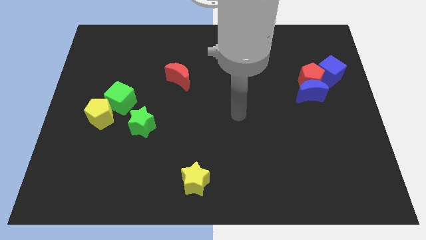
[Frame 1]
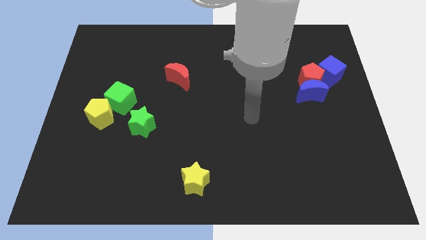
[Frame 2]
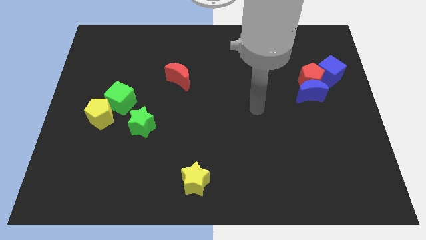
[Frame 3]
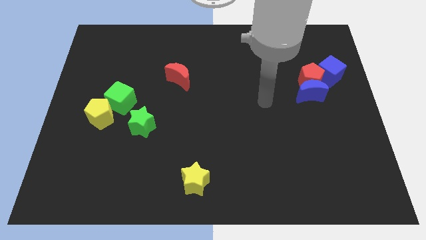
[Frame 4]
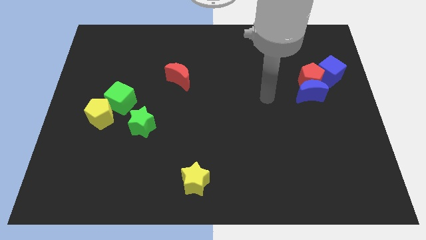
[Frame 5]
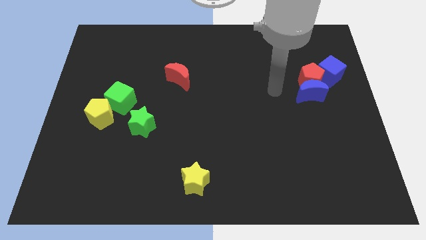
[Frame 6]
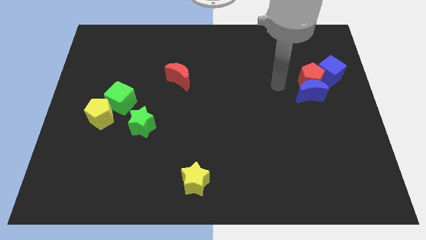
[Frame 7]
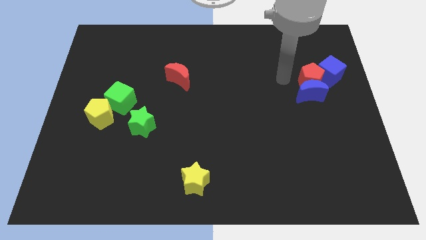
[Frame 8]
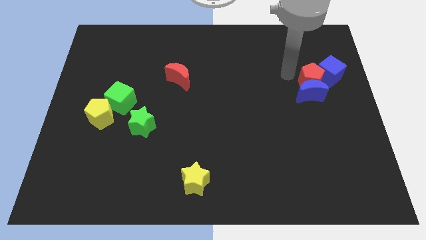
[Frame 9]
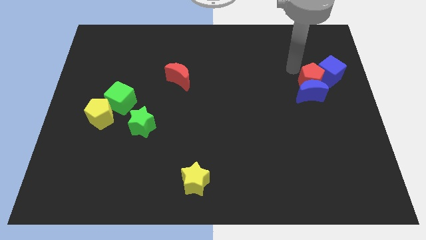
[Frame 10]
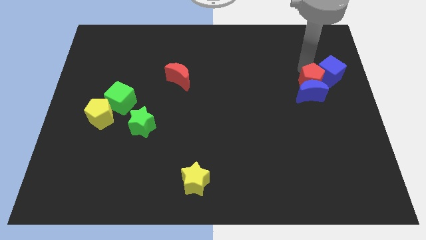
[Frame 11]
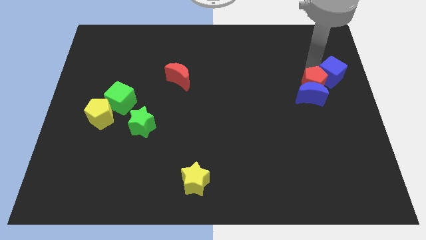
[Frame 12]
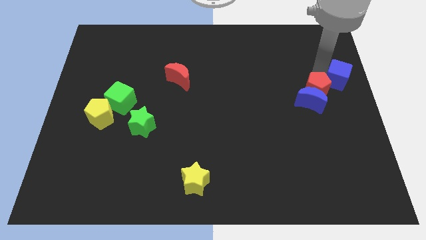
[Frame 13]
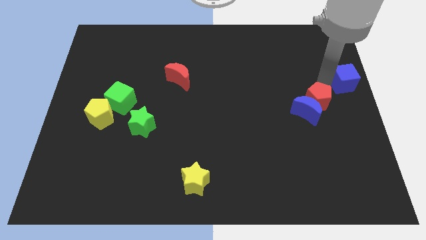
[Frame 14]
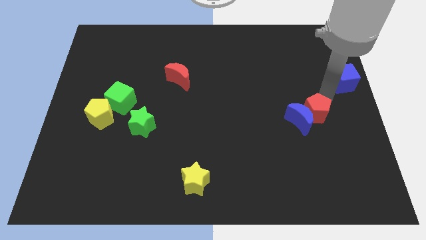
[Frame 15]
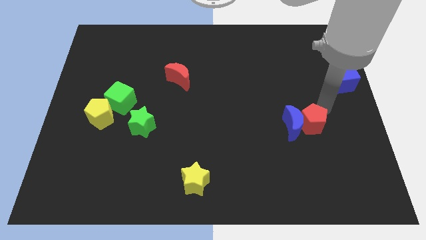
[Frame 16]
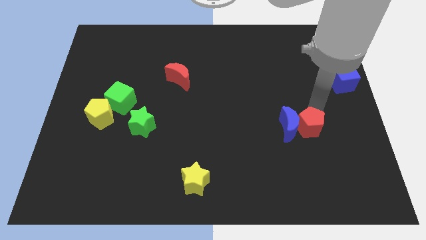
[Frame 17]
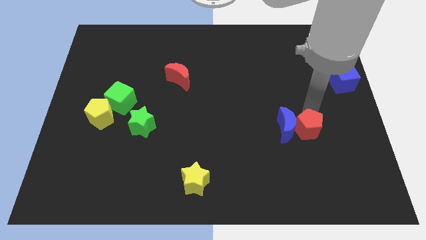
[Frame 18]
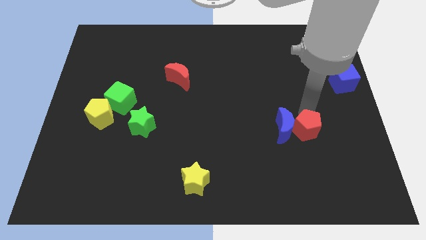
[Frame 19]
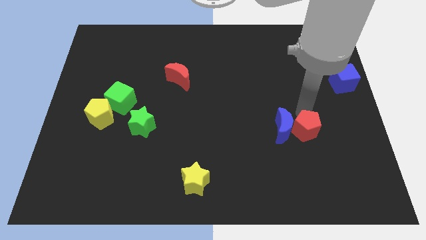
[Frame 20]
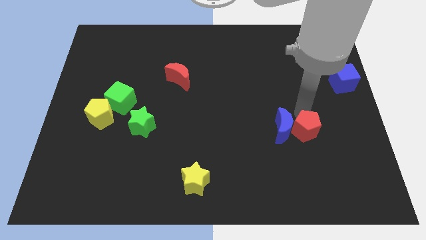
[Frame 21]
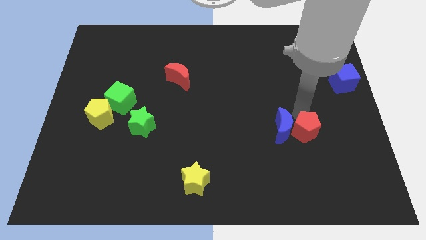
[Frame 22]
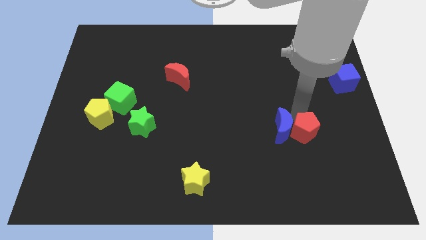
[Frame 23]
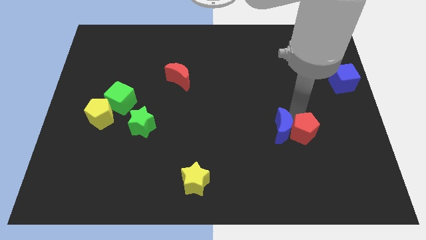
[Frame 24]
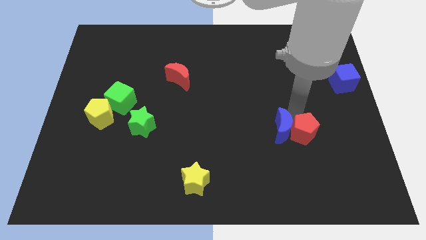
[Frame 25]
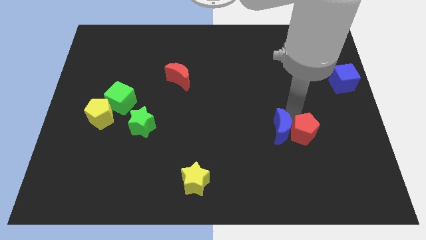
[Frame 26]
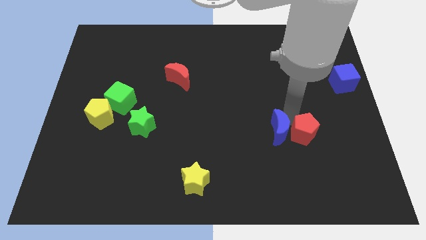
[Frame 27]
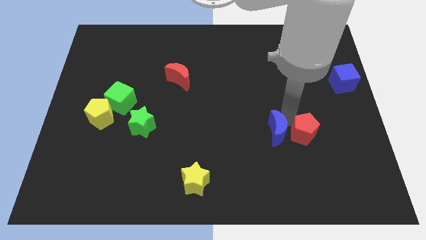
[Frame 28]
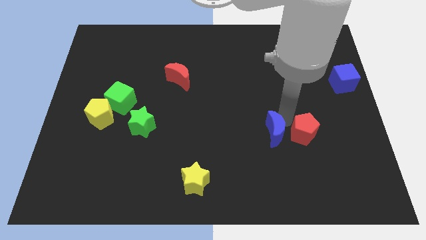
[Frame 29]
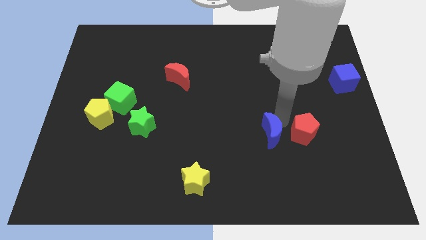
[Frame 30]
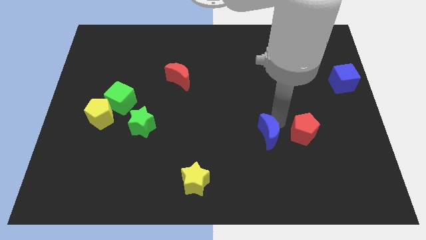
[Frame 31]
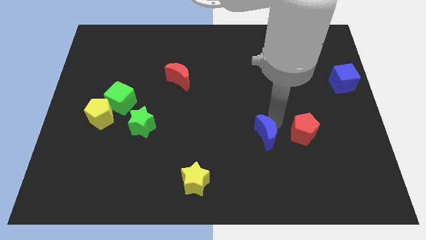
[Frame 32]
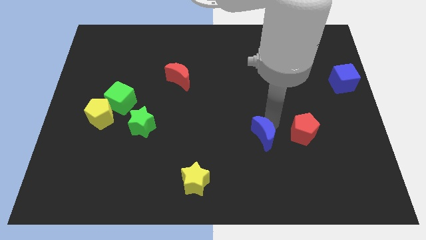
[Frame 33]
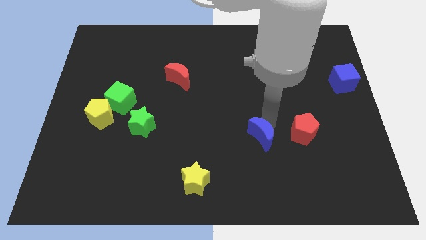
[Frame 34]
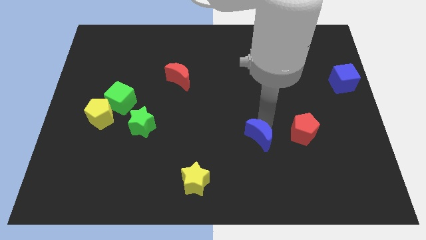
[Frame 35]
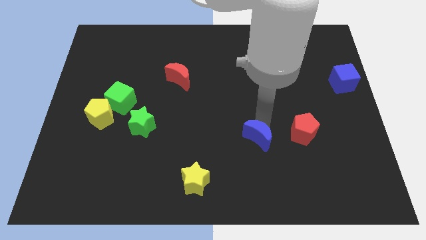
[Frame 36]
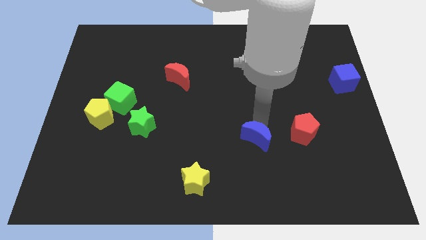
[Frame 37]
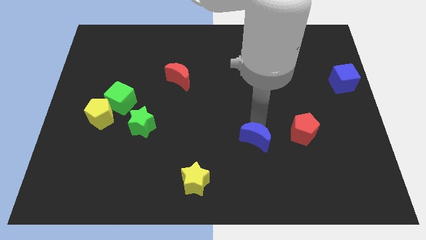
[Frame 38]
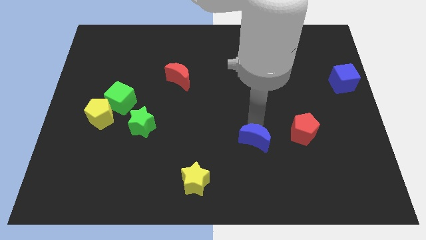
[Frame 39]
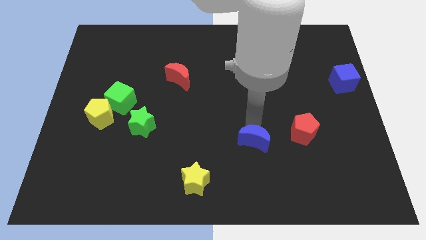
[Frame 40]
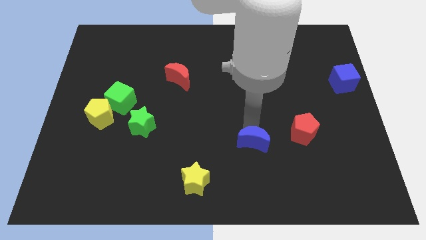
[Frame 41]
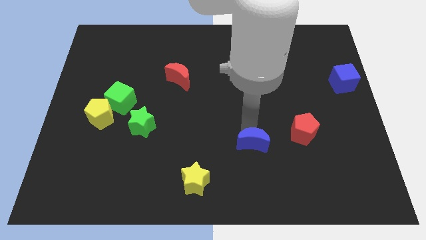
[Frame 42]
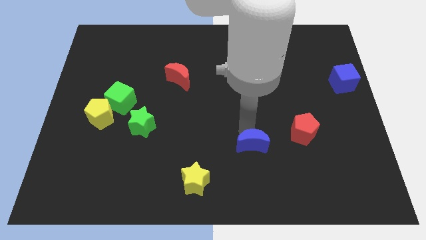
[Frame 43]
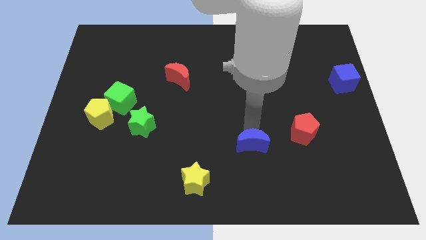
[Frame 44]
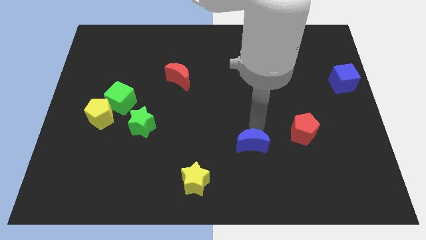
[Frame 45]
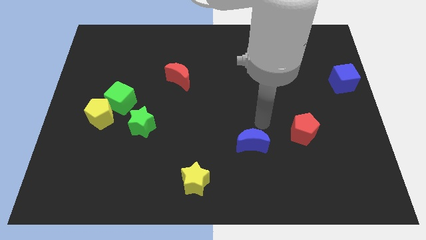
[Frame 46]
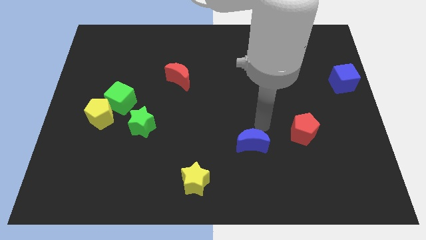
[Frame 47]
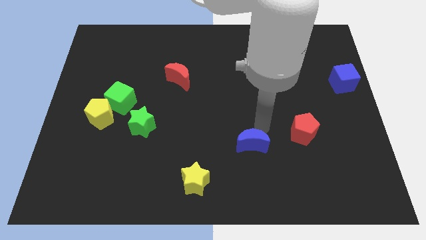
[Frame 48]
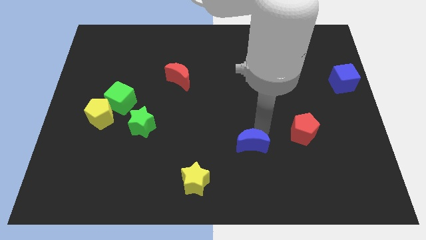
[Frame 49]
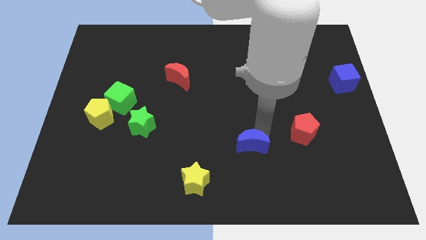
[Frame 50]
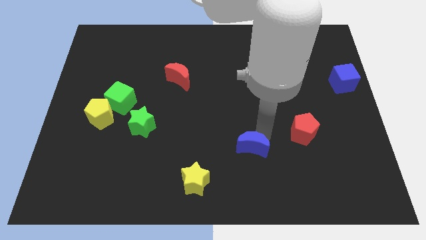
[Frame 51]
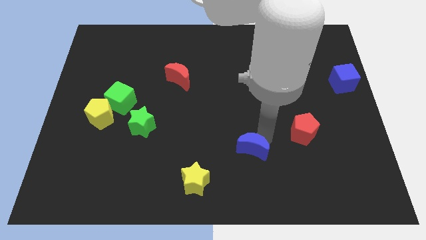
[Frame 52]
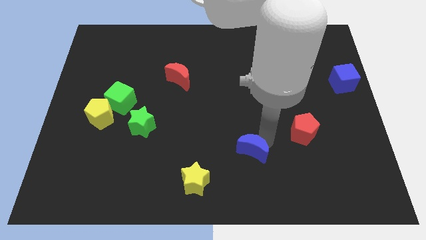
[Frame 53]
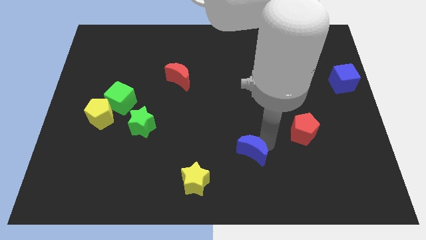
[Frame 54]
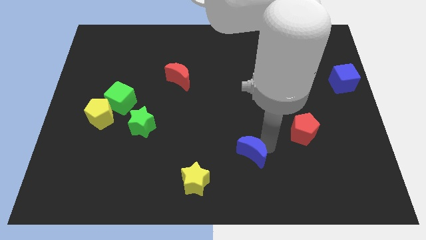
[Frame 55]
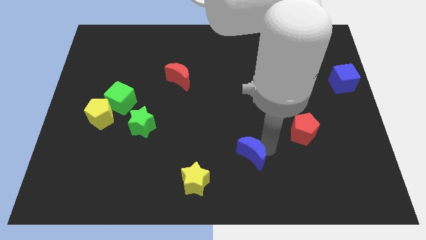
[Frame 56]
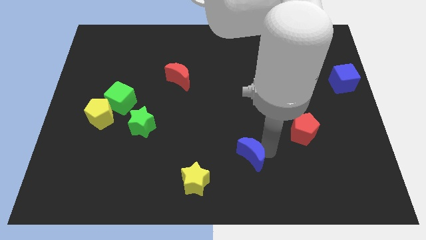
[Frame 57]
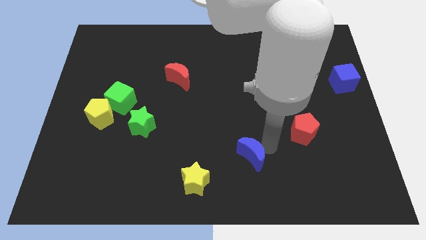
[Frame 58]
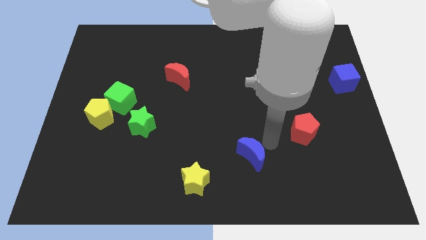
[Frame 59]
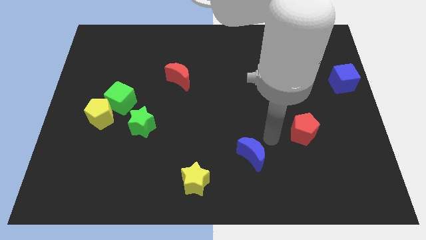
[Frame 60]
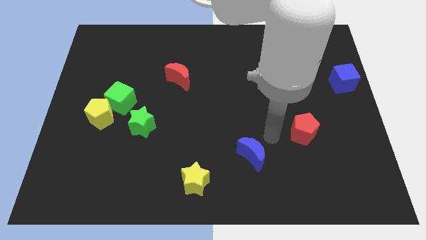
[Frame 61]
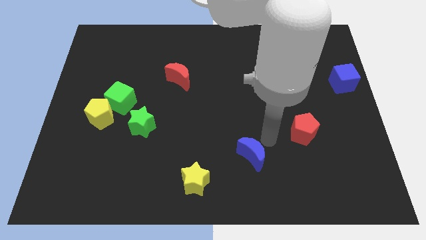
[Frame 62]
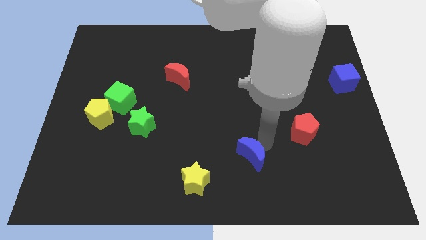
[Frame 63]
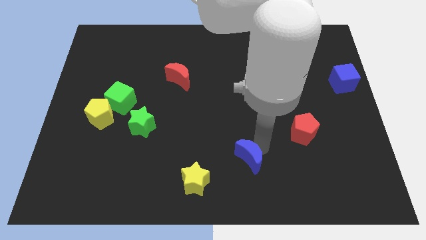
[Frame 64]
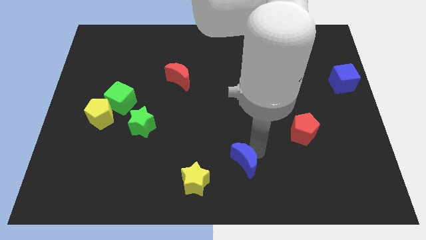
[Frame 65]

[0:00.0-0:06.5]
push the blue moon to the bottom side
